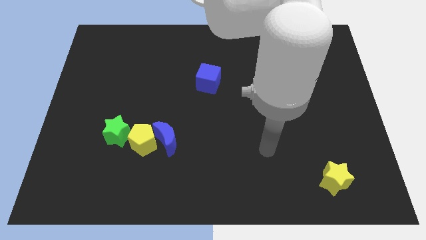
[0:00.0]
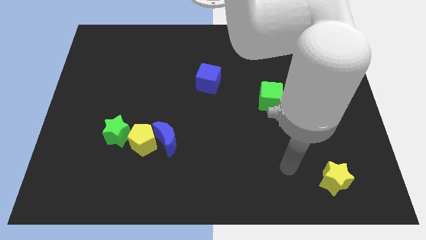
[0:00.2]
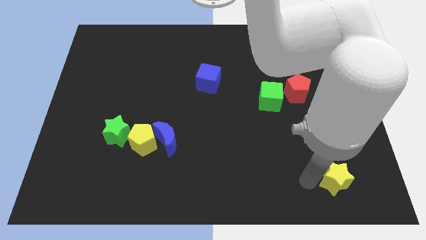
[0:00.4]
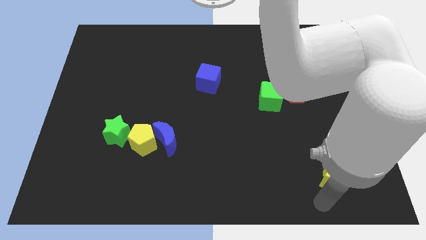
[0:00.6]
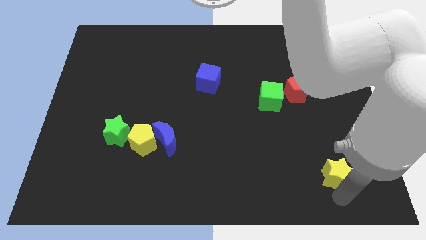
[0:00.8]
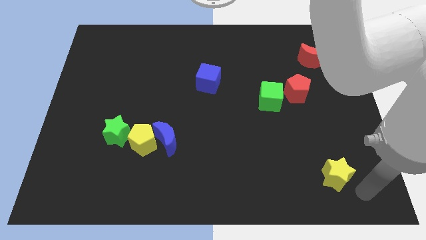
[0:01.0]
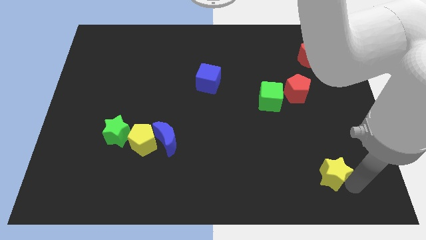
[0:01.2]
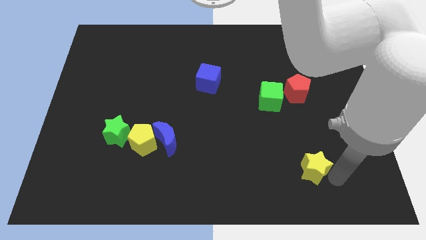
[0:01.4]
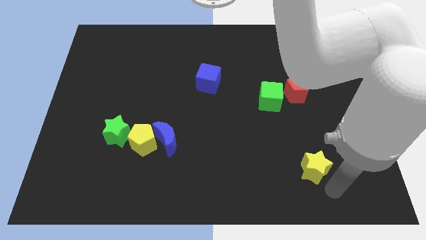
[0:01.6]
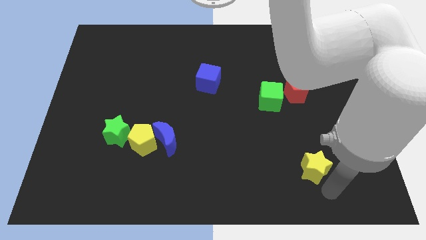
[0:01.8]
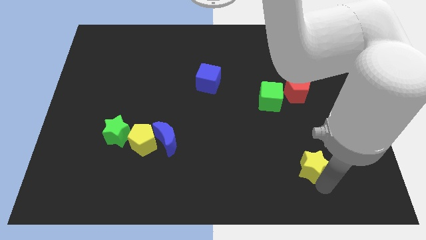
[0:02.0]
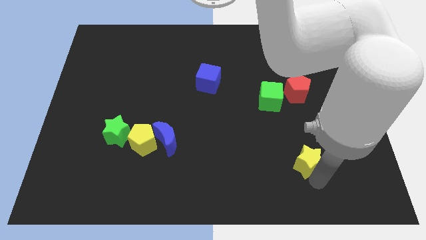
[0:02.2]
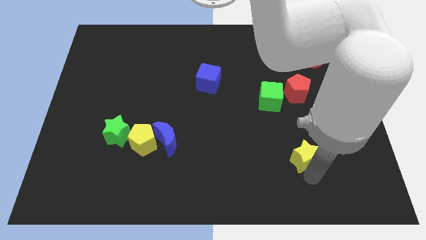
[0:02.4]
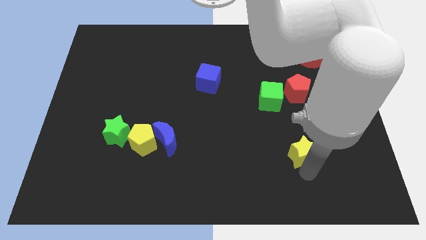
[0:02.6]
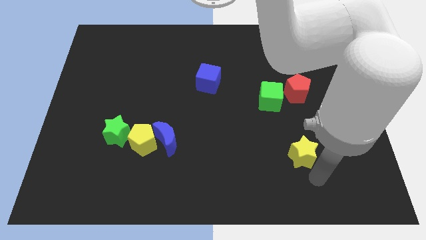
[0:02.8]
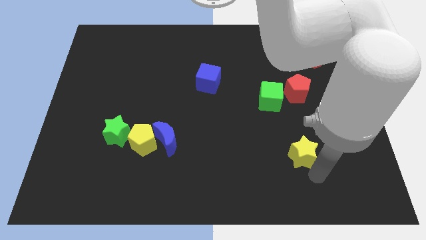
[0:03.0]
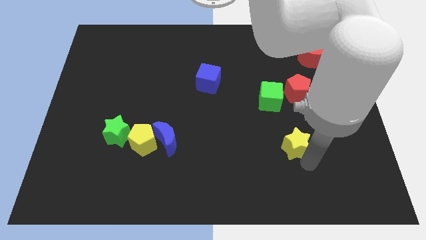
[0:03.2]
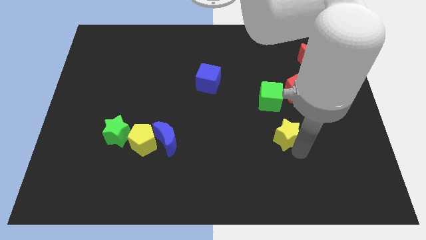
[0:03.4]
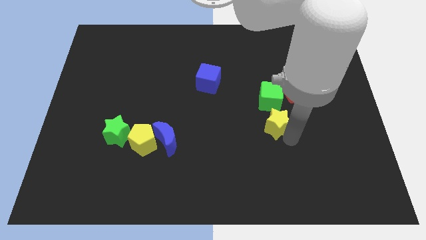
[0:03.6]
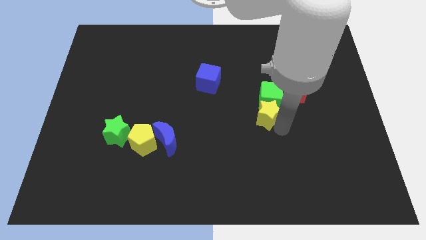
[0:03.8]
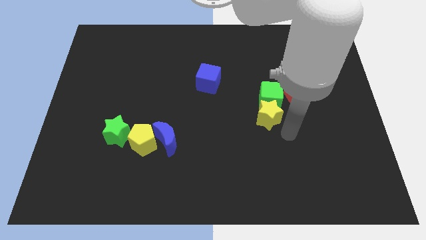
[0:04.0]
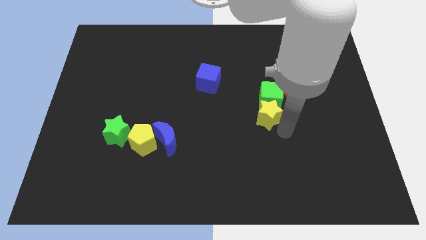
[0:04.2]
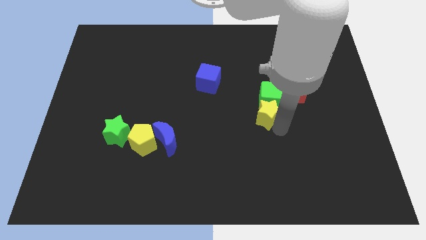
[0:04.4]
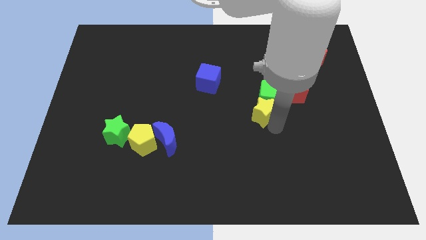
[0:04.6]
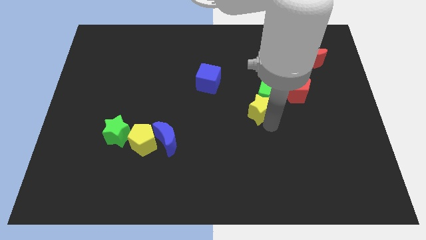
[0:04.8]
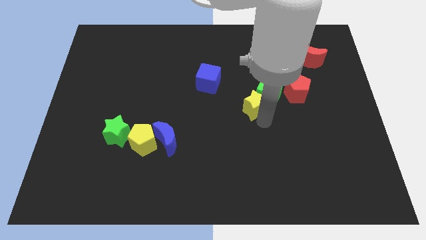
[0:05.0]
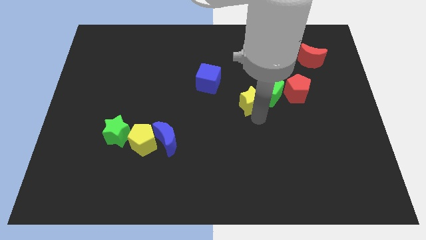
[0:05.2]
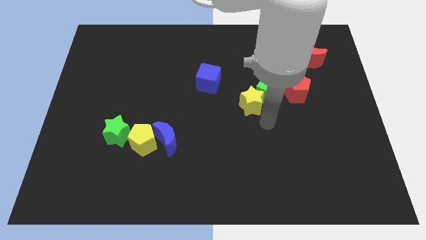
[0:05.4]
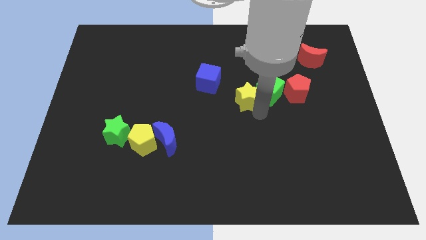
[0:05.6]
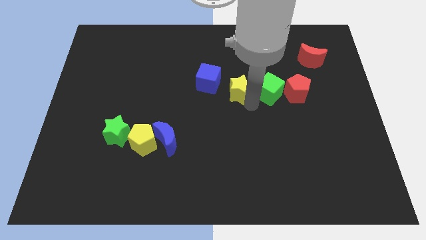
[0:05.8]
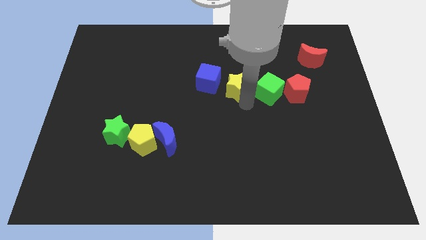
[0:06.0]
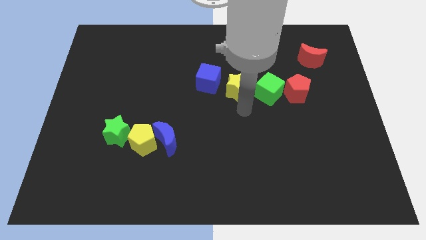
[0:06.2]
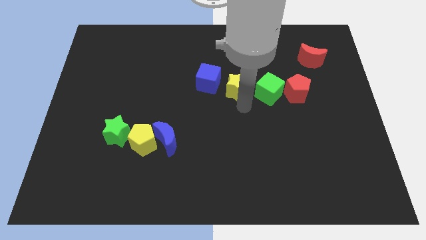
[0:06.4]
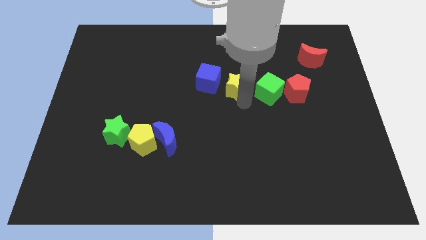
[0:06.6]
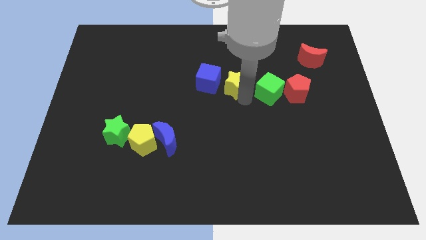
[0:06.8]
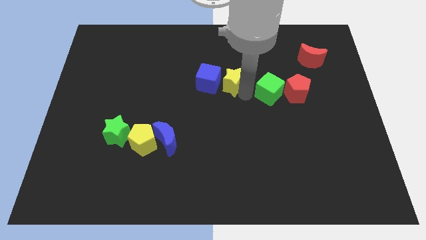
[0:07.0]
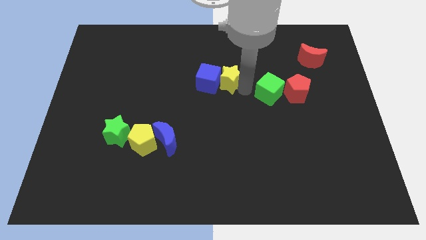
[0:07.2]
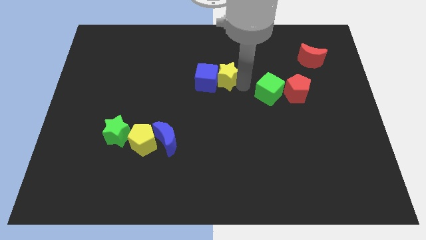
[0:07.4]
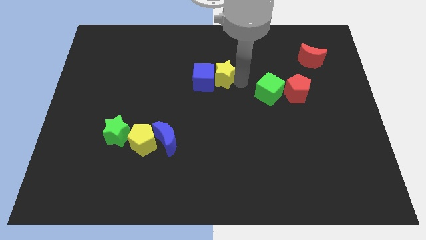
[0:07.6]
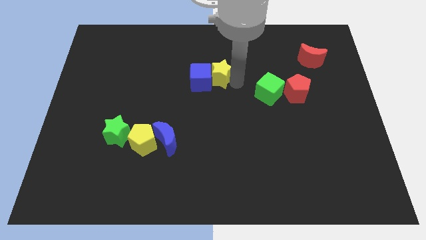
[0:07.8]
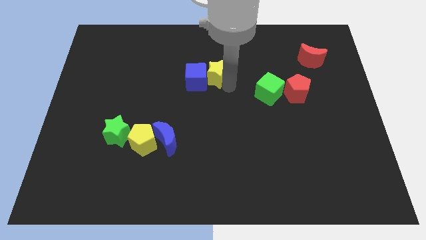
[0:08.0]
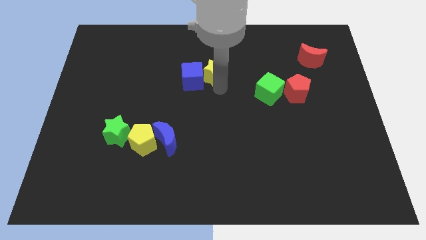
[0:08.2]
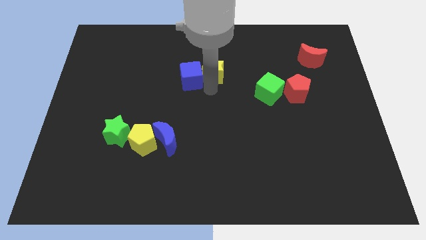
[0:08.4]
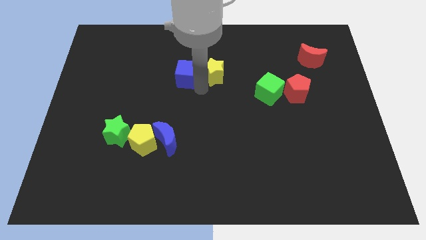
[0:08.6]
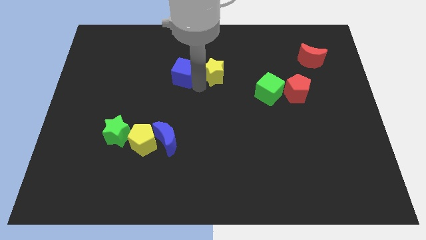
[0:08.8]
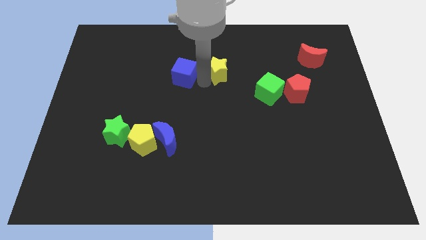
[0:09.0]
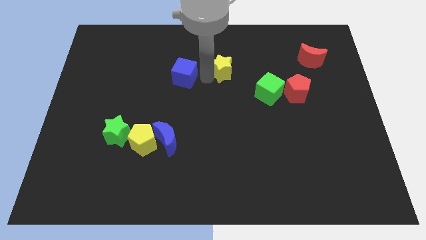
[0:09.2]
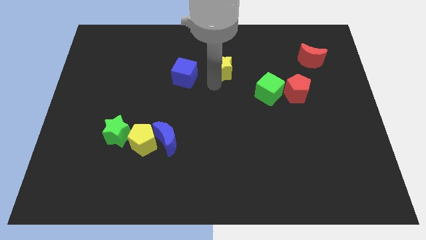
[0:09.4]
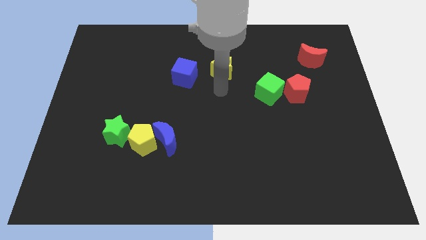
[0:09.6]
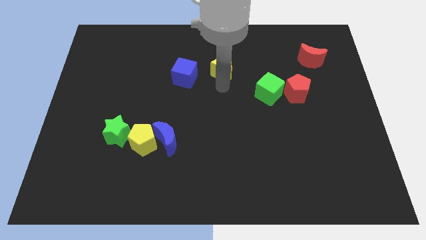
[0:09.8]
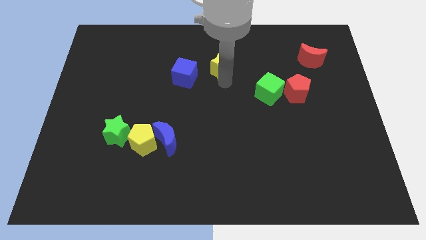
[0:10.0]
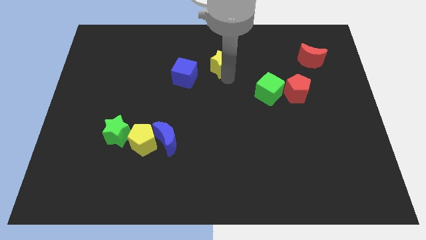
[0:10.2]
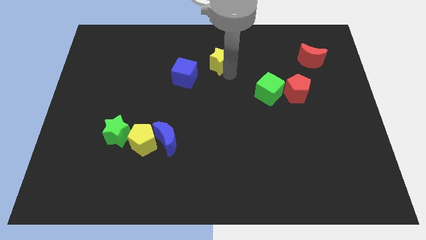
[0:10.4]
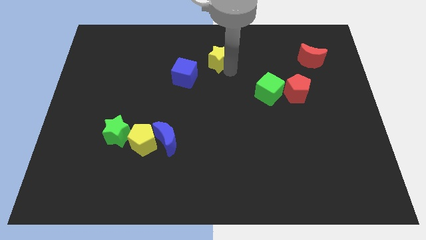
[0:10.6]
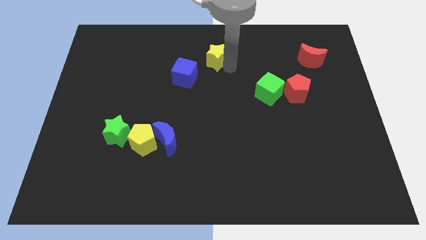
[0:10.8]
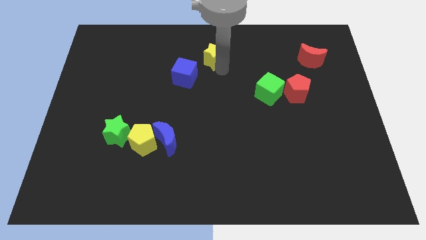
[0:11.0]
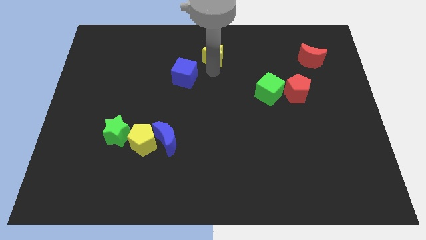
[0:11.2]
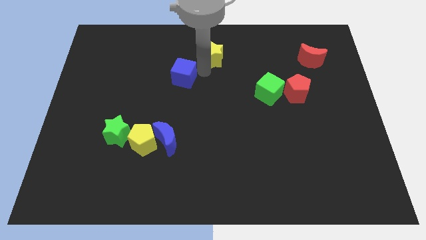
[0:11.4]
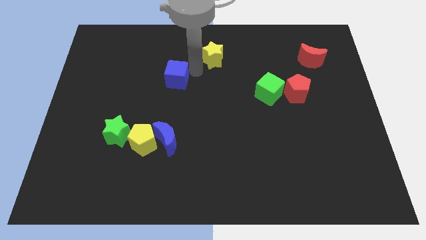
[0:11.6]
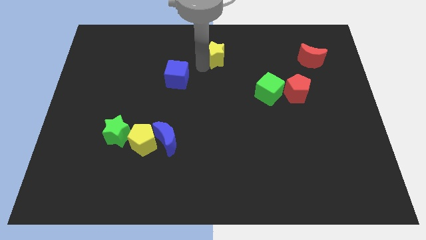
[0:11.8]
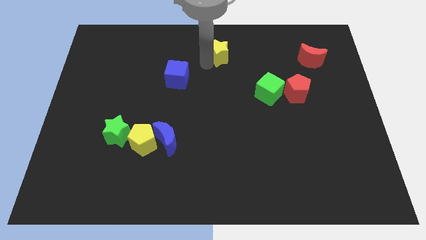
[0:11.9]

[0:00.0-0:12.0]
slide the yellow star to the top side
